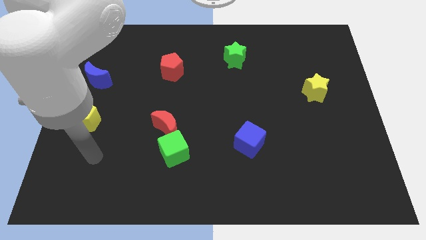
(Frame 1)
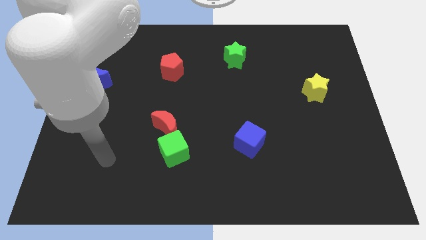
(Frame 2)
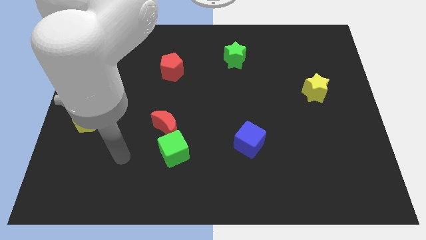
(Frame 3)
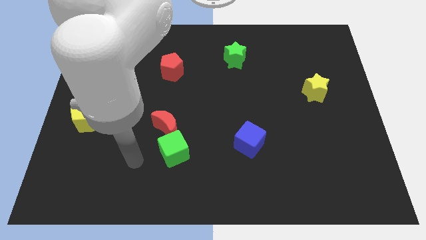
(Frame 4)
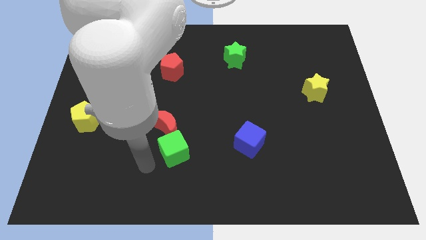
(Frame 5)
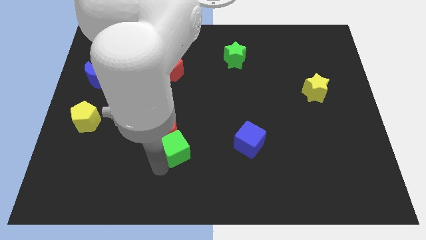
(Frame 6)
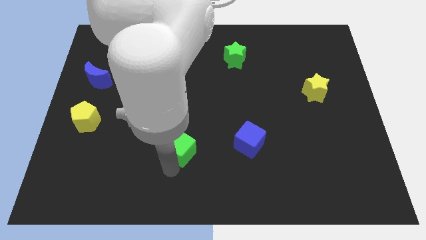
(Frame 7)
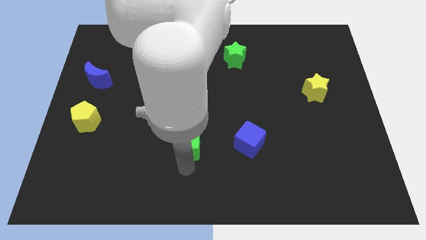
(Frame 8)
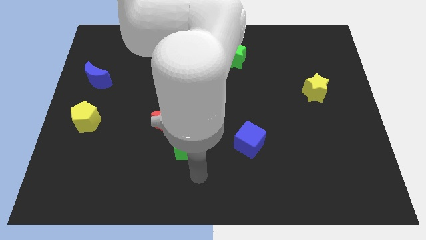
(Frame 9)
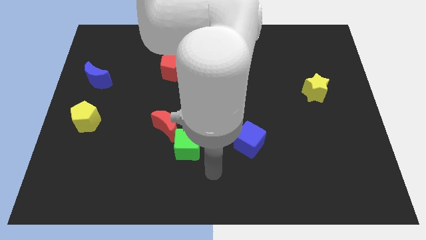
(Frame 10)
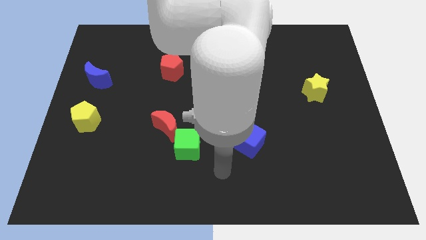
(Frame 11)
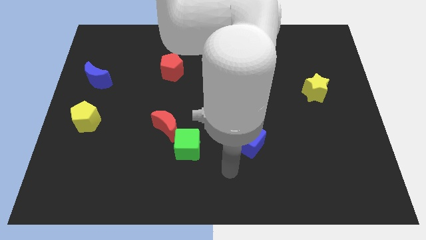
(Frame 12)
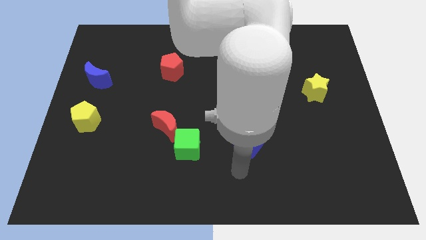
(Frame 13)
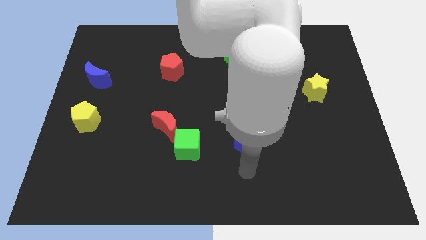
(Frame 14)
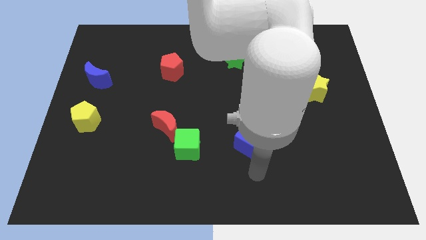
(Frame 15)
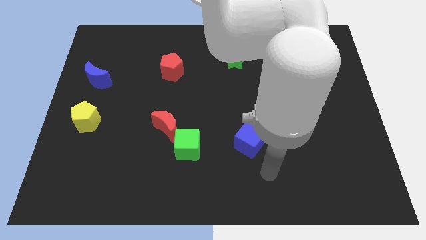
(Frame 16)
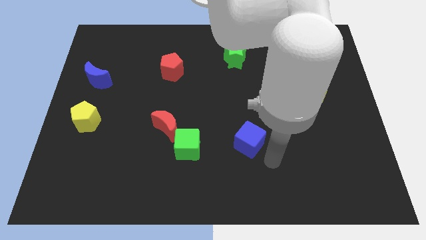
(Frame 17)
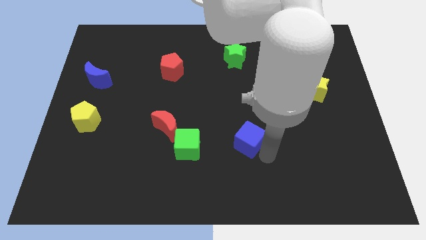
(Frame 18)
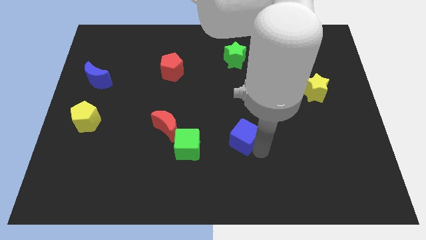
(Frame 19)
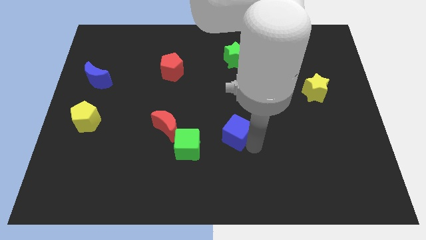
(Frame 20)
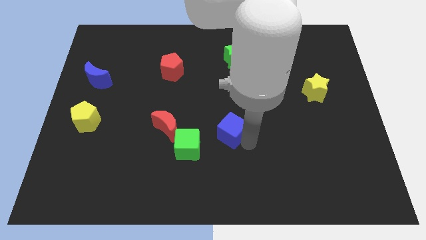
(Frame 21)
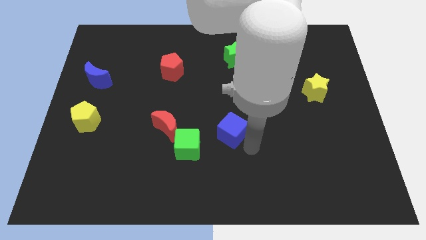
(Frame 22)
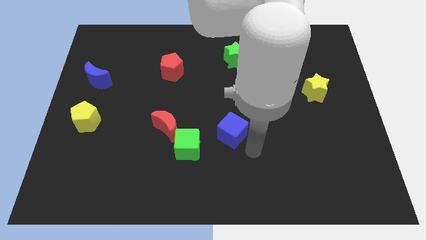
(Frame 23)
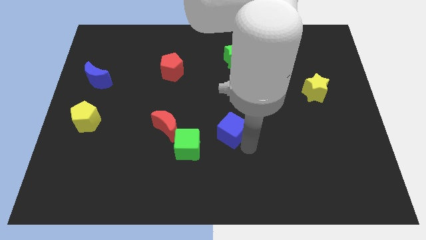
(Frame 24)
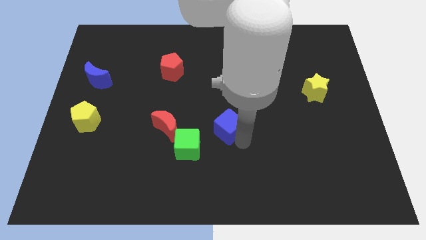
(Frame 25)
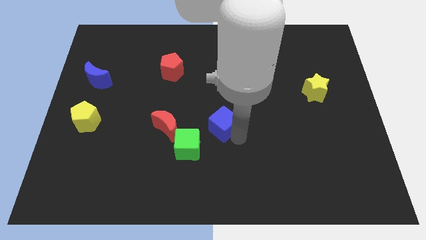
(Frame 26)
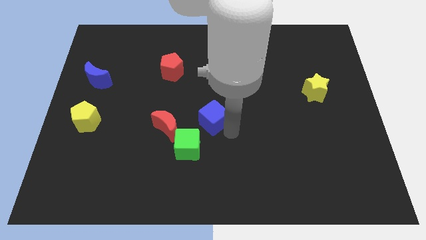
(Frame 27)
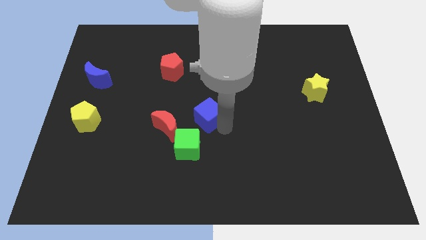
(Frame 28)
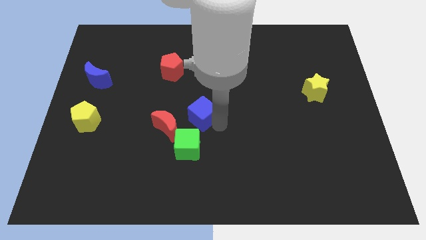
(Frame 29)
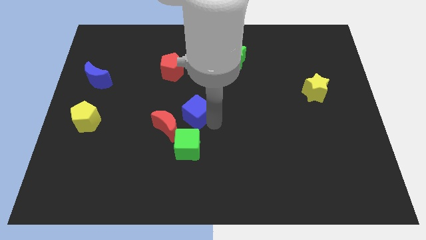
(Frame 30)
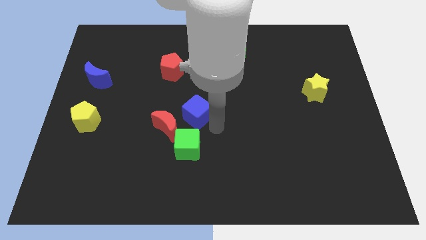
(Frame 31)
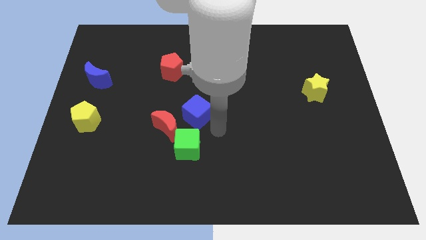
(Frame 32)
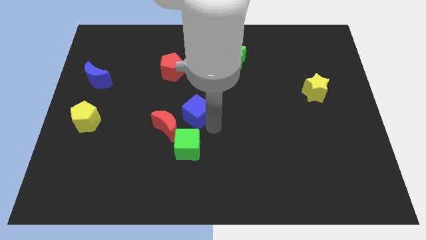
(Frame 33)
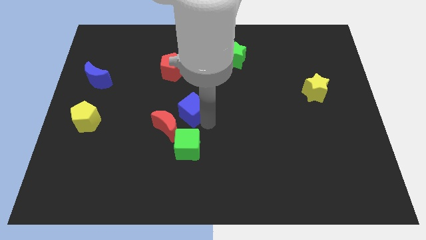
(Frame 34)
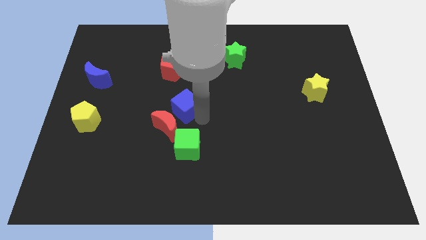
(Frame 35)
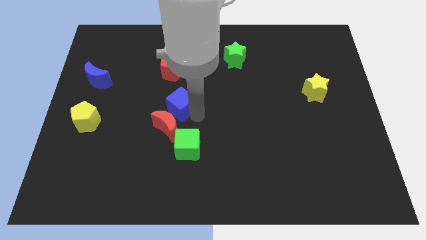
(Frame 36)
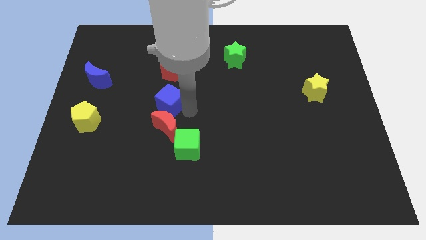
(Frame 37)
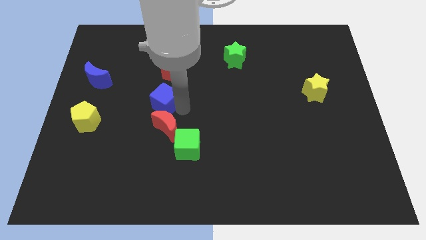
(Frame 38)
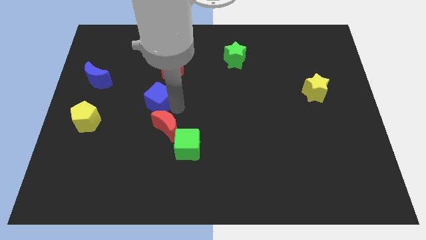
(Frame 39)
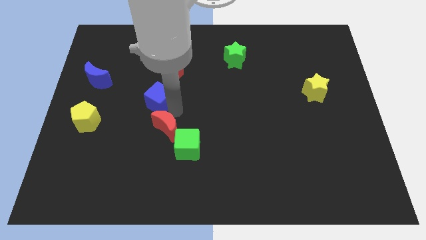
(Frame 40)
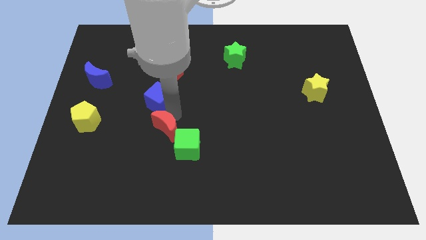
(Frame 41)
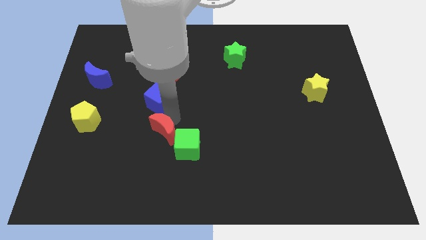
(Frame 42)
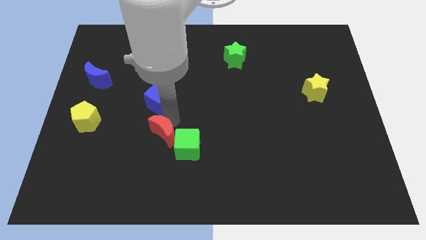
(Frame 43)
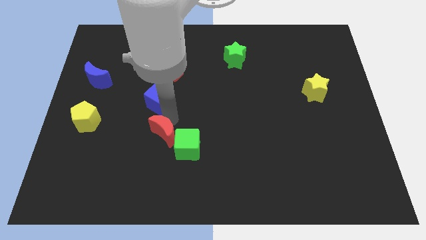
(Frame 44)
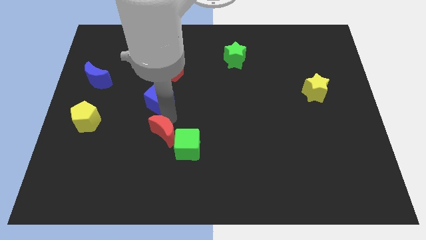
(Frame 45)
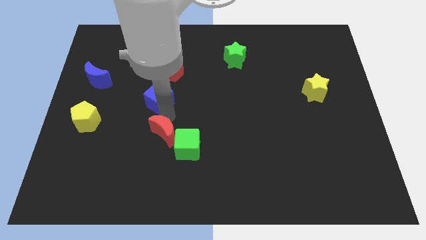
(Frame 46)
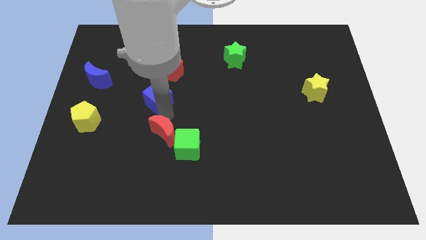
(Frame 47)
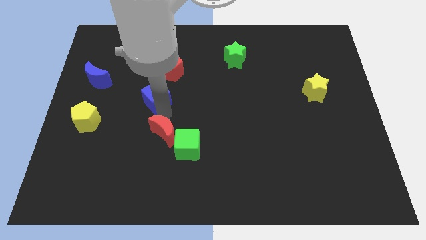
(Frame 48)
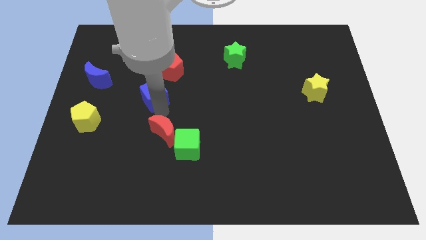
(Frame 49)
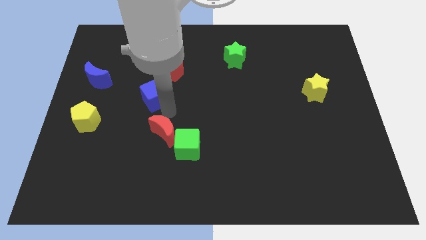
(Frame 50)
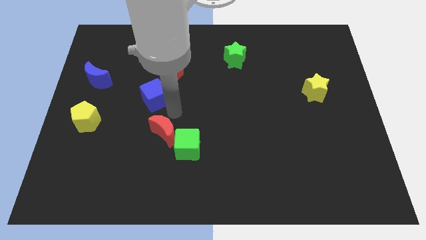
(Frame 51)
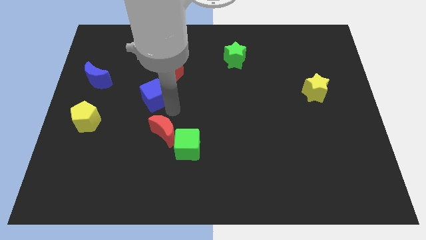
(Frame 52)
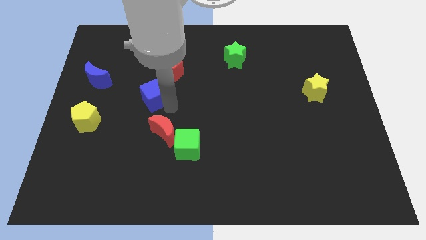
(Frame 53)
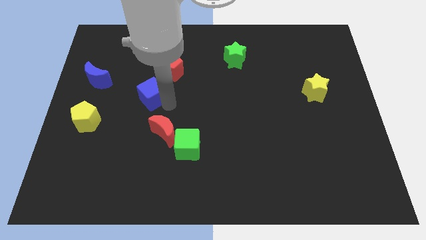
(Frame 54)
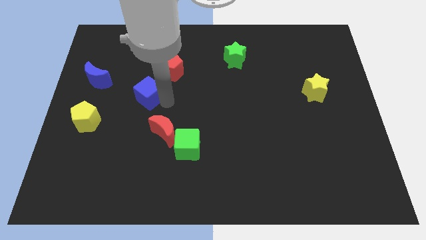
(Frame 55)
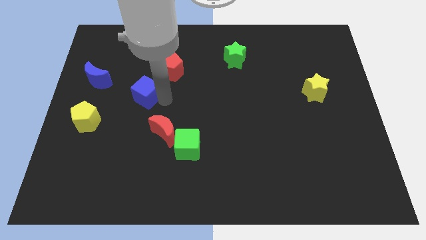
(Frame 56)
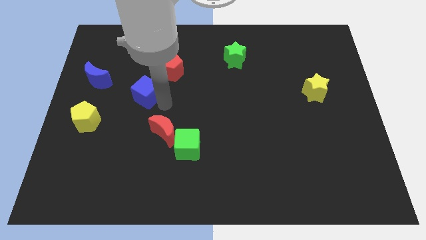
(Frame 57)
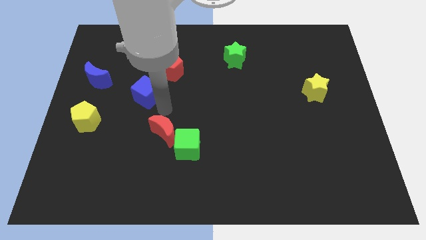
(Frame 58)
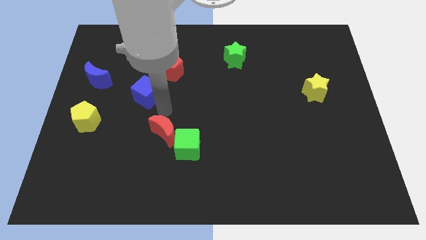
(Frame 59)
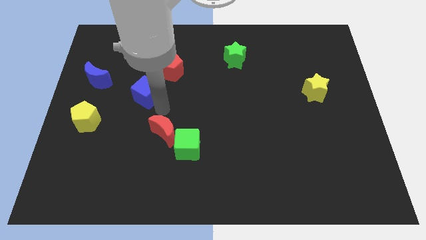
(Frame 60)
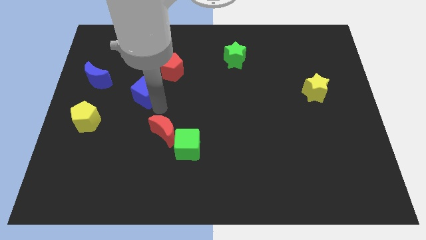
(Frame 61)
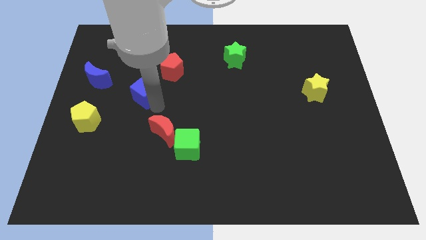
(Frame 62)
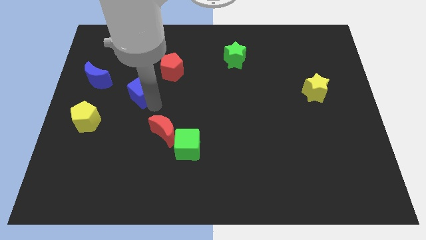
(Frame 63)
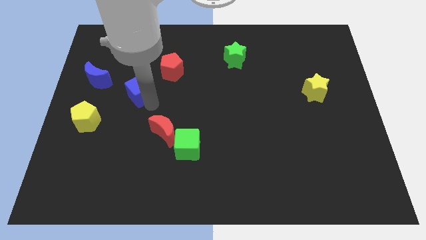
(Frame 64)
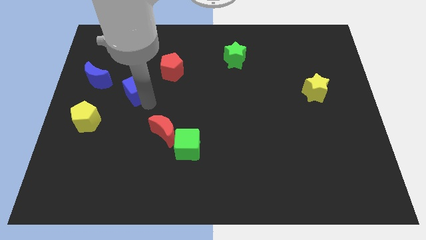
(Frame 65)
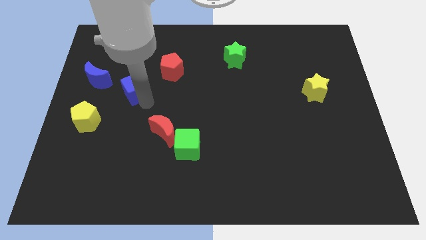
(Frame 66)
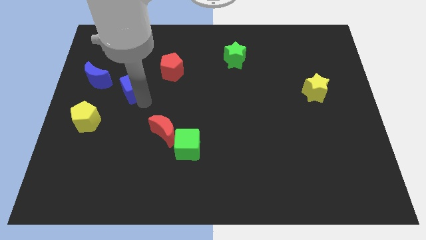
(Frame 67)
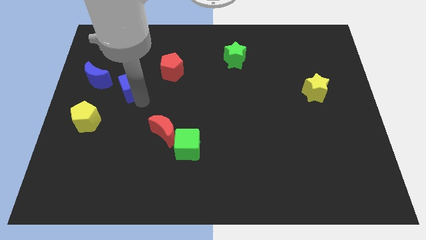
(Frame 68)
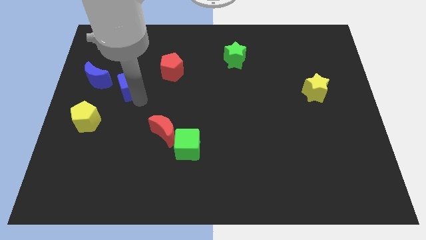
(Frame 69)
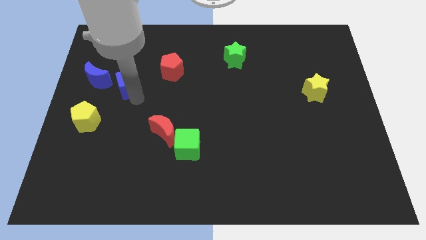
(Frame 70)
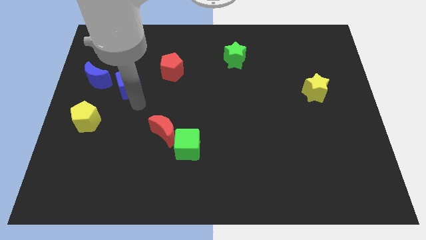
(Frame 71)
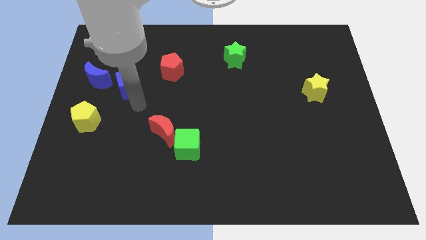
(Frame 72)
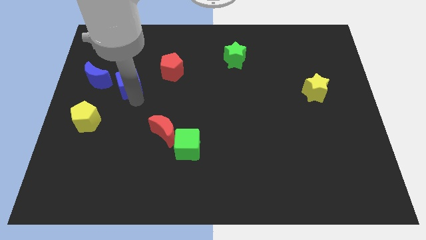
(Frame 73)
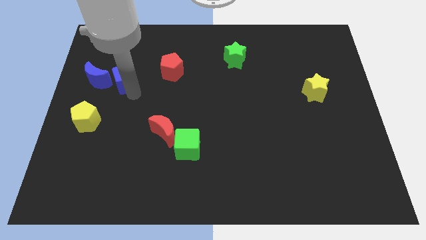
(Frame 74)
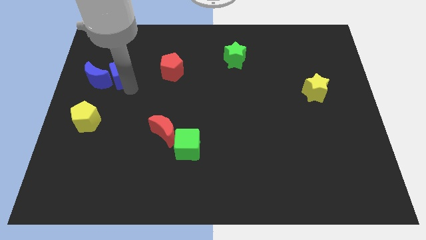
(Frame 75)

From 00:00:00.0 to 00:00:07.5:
push the blue cube to the top right side of the blue moon
